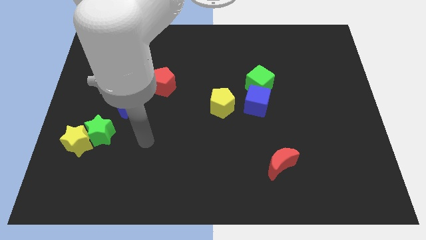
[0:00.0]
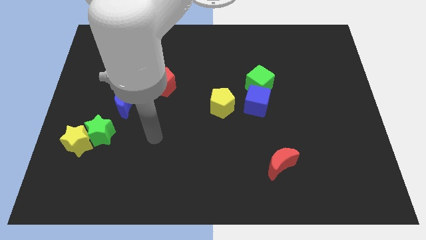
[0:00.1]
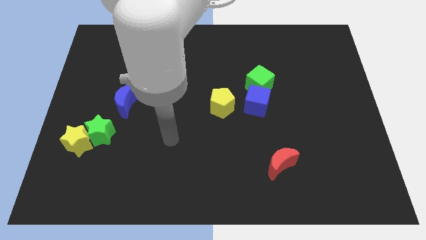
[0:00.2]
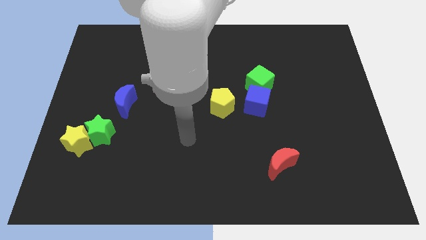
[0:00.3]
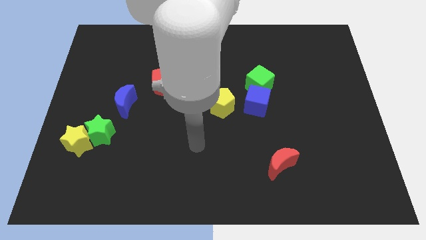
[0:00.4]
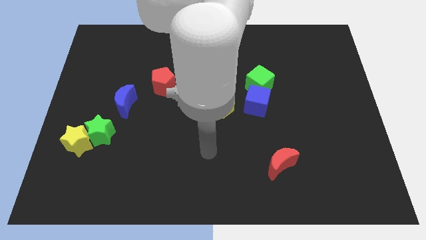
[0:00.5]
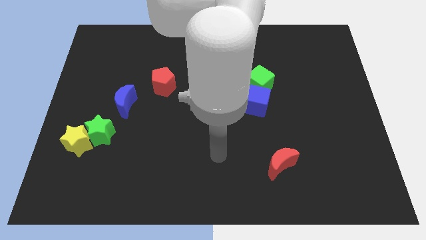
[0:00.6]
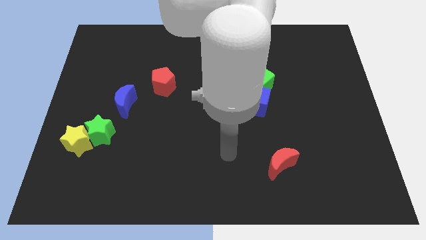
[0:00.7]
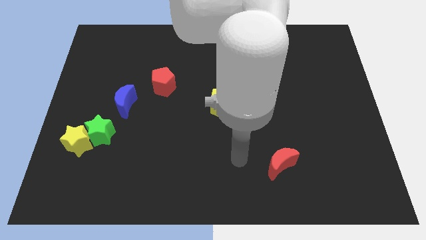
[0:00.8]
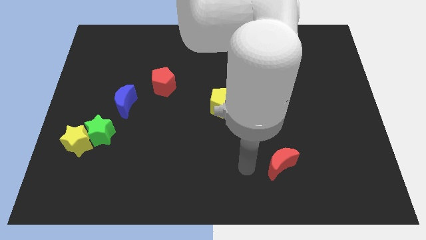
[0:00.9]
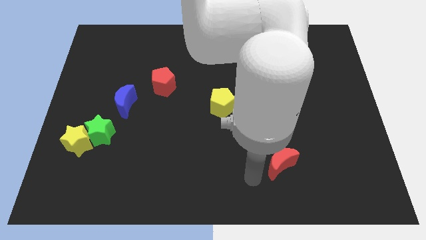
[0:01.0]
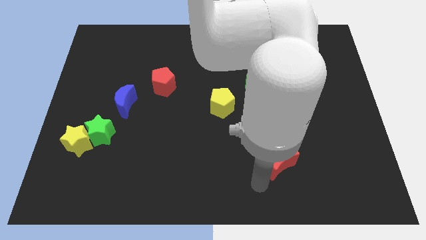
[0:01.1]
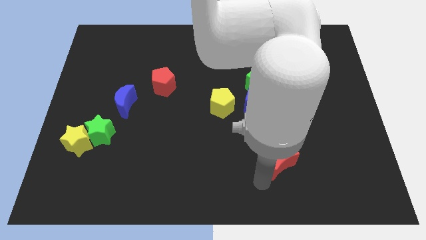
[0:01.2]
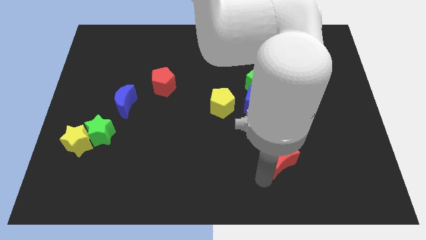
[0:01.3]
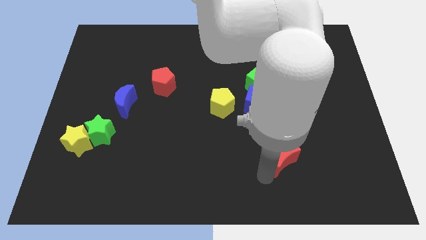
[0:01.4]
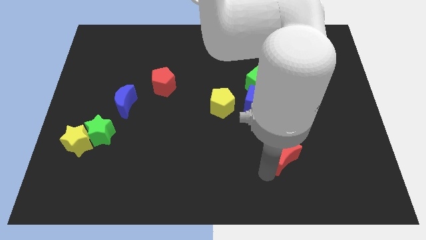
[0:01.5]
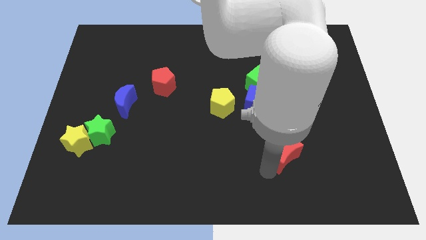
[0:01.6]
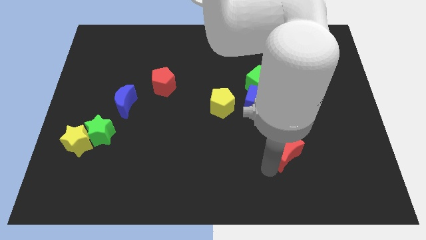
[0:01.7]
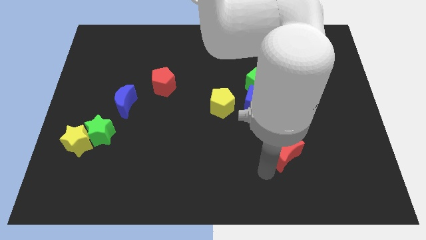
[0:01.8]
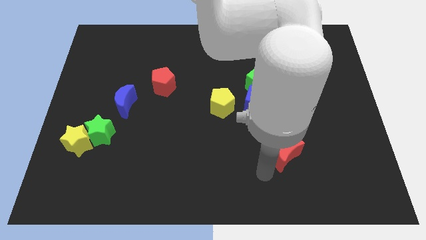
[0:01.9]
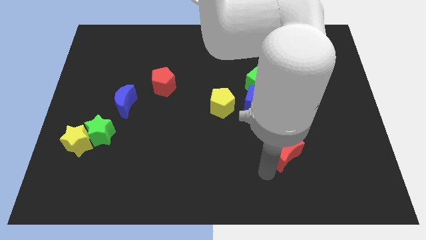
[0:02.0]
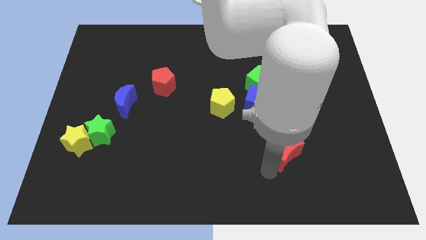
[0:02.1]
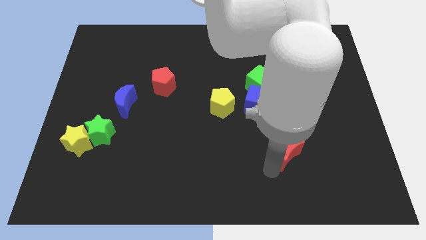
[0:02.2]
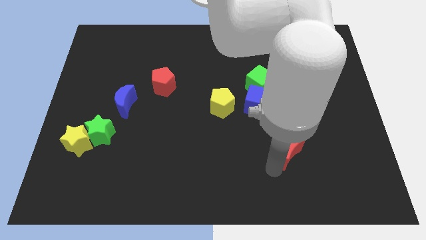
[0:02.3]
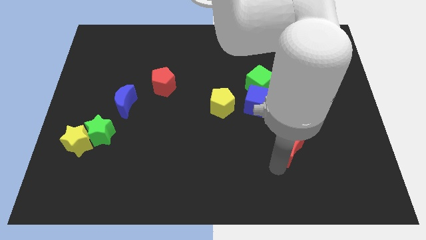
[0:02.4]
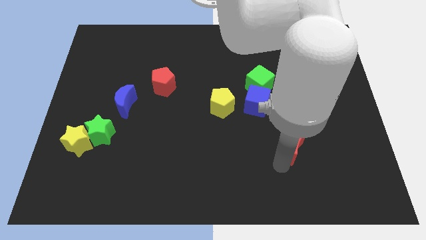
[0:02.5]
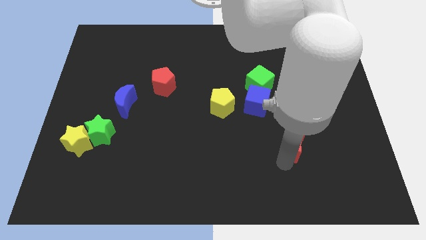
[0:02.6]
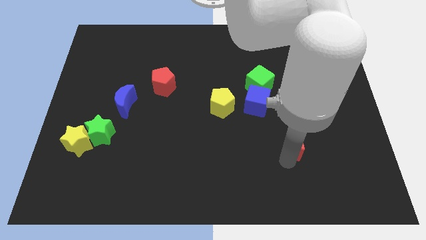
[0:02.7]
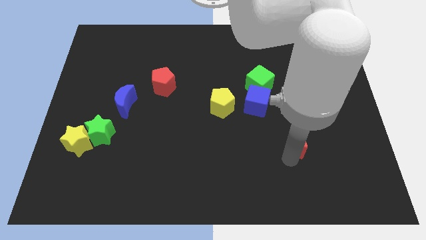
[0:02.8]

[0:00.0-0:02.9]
slide the red moon diagonally up and to the right somewhat

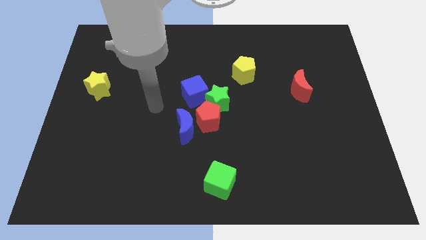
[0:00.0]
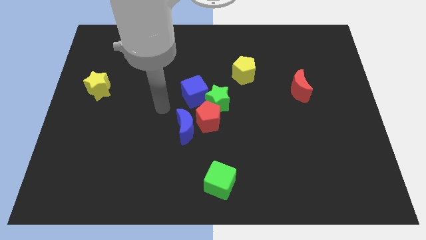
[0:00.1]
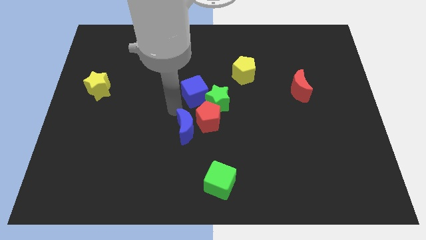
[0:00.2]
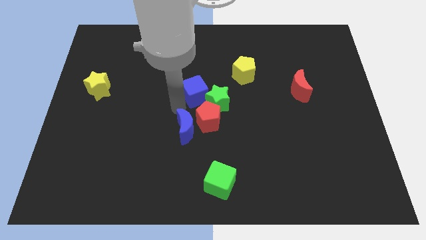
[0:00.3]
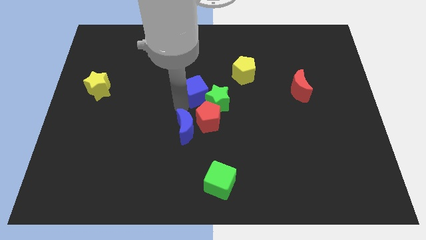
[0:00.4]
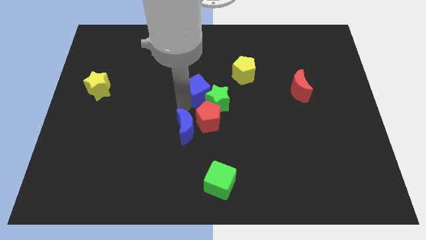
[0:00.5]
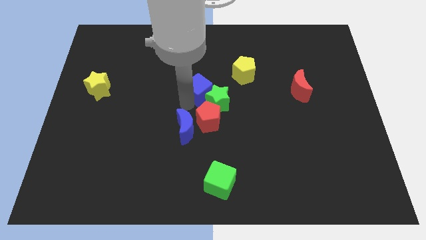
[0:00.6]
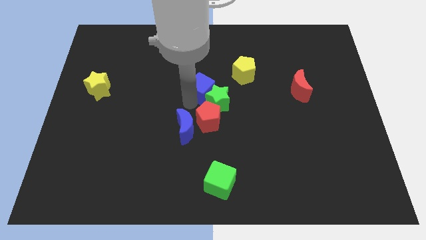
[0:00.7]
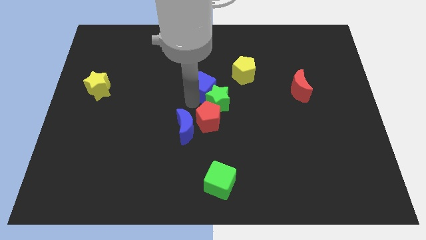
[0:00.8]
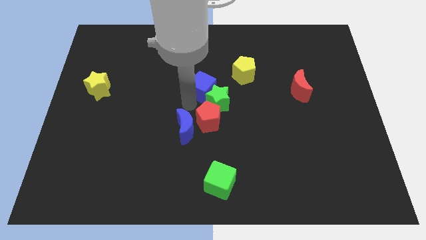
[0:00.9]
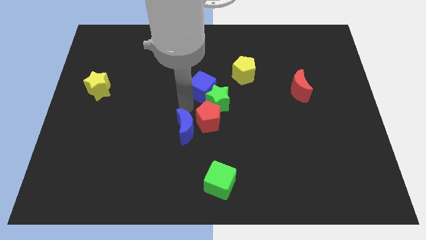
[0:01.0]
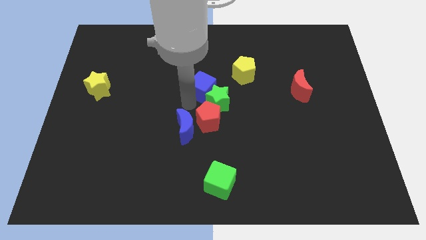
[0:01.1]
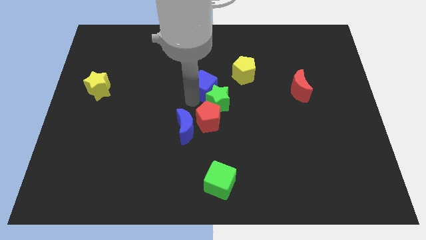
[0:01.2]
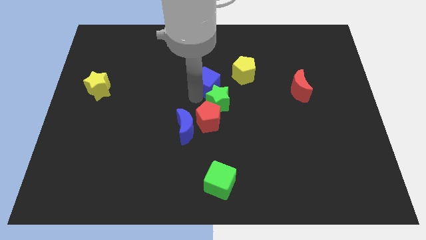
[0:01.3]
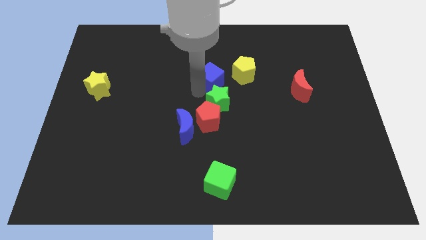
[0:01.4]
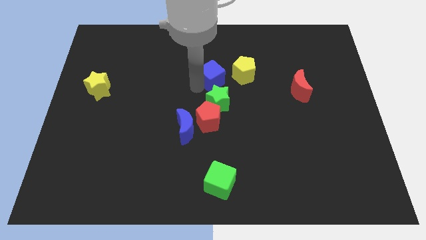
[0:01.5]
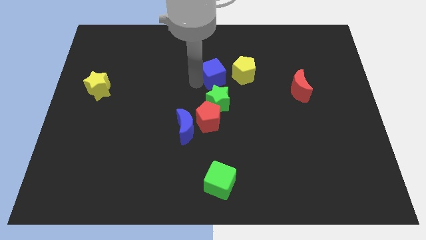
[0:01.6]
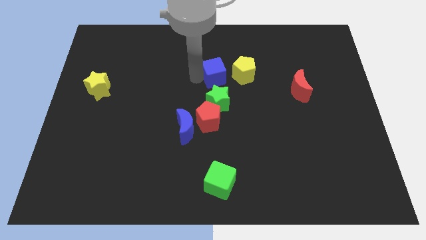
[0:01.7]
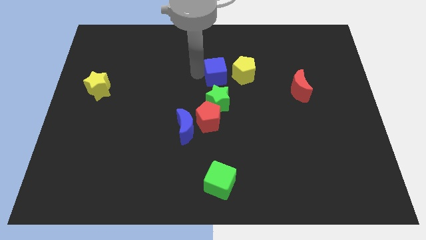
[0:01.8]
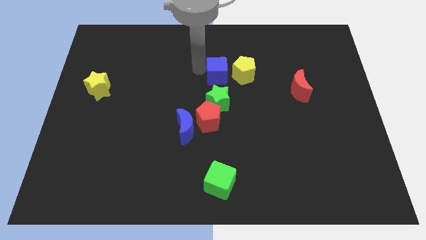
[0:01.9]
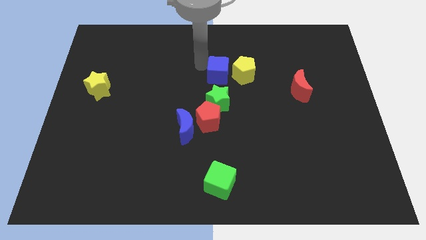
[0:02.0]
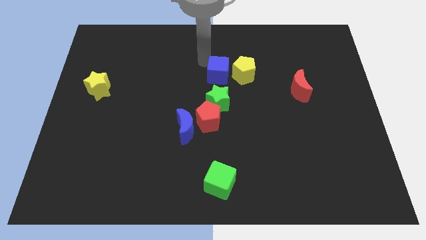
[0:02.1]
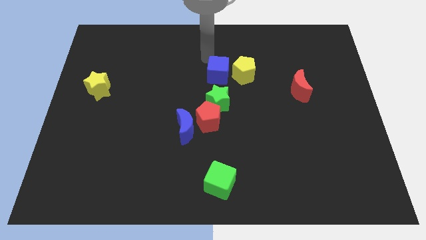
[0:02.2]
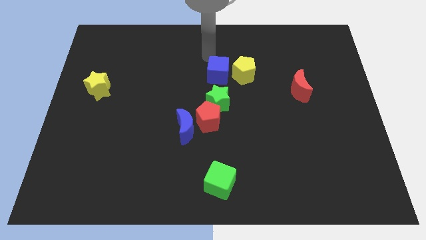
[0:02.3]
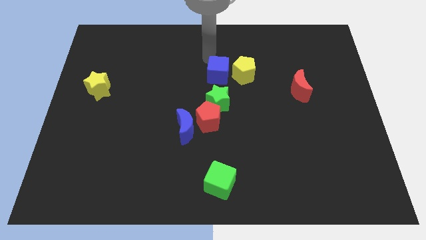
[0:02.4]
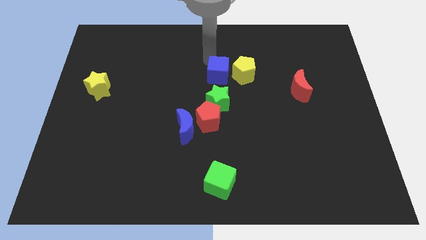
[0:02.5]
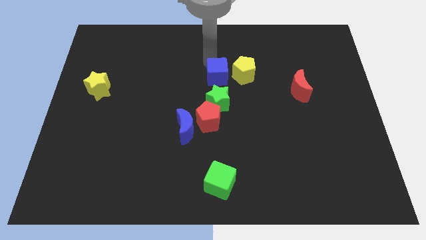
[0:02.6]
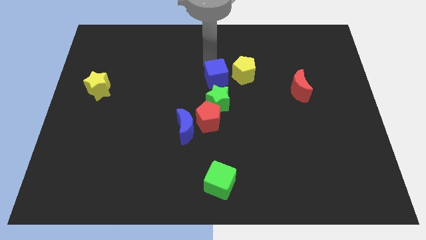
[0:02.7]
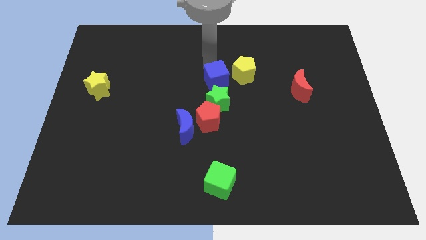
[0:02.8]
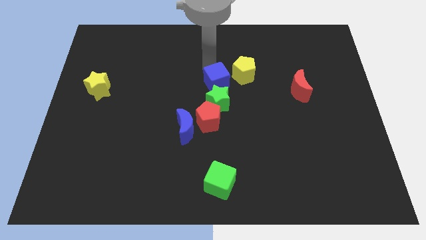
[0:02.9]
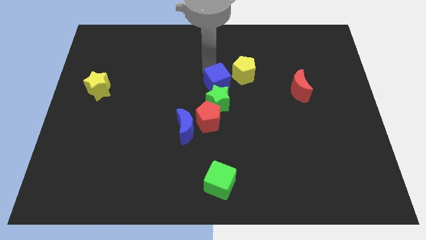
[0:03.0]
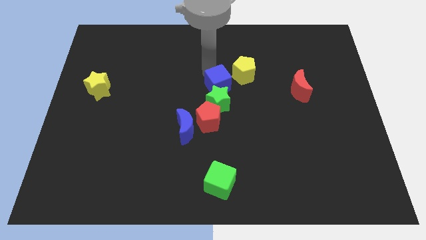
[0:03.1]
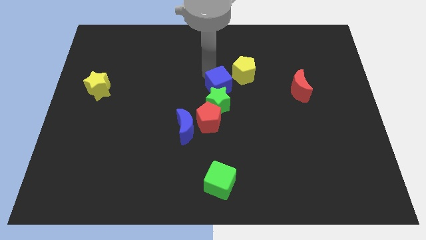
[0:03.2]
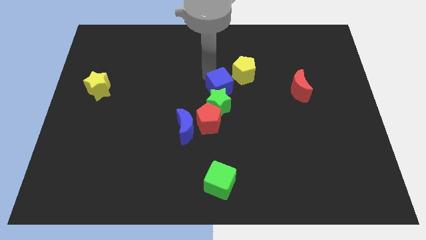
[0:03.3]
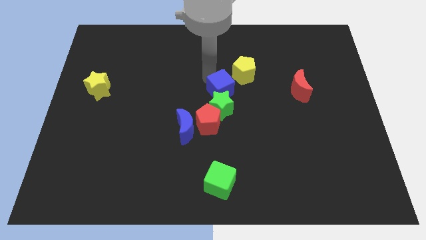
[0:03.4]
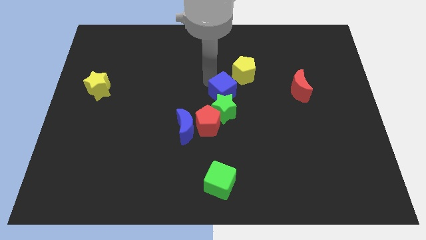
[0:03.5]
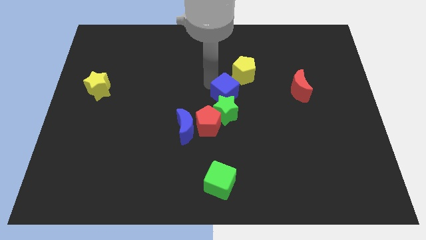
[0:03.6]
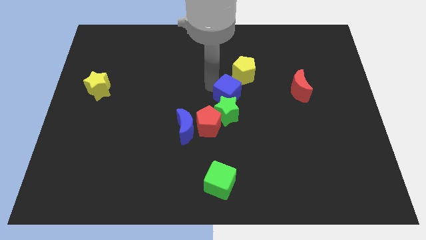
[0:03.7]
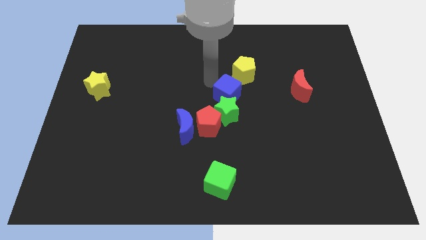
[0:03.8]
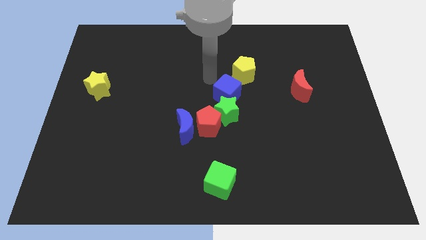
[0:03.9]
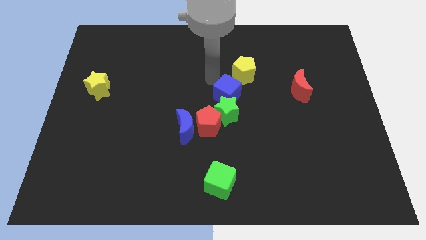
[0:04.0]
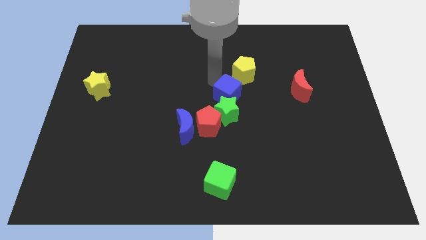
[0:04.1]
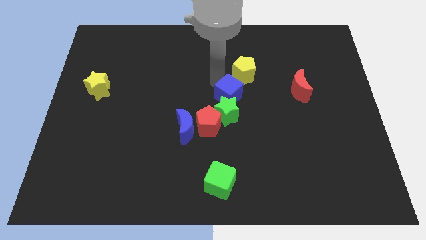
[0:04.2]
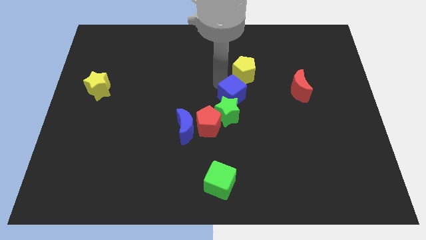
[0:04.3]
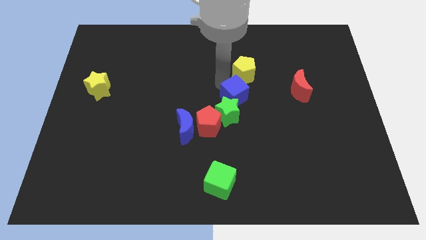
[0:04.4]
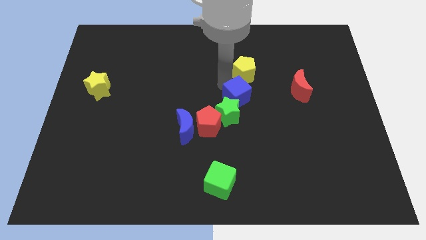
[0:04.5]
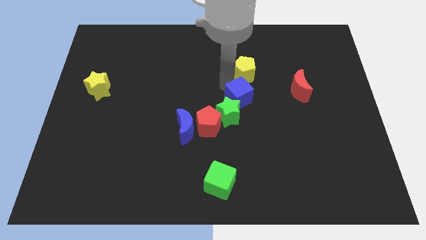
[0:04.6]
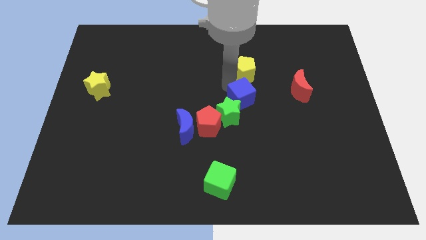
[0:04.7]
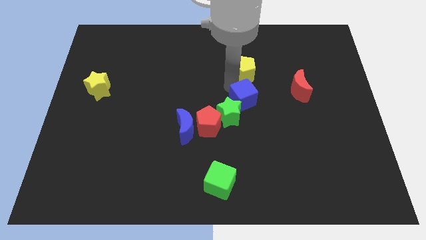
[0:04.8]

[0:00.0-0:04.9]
slide the blue cube a bit down and to the right diagonally

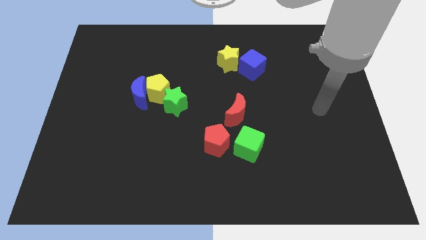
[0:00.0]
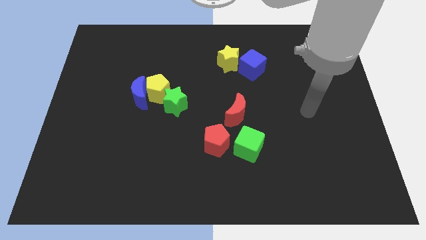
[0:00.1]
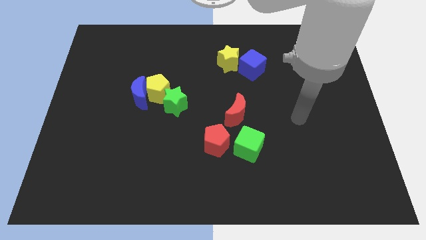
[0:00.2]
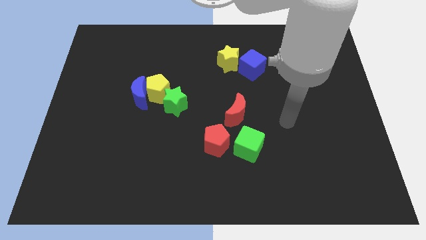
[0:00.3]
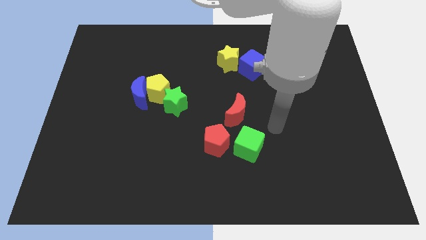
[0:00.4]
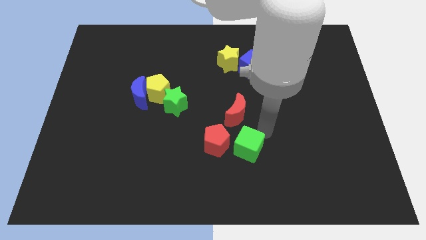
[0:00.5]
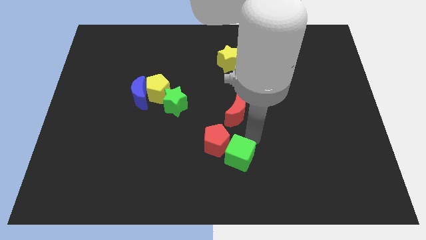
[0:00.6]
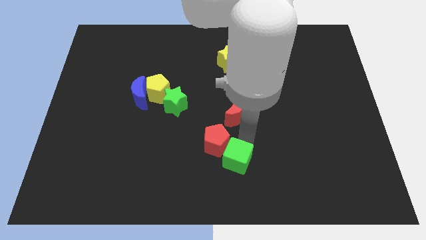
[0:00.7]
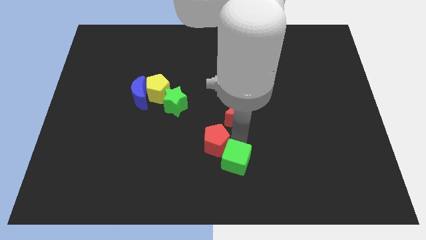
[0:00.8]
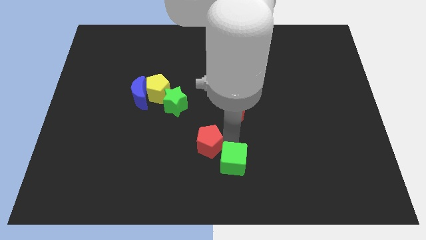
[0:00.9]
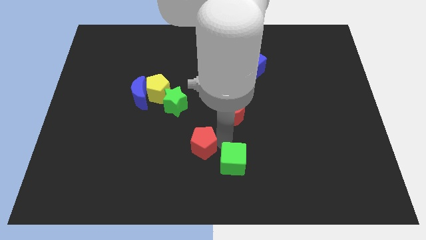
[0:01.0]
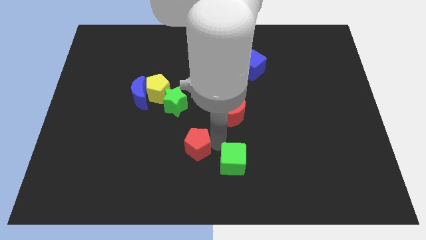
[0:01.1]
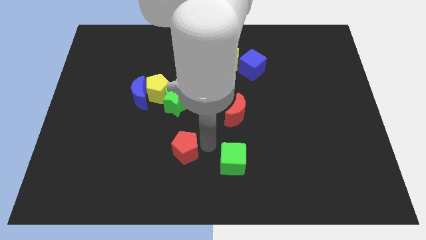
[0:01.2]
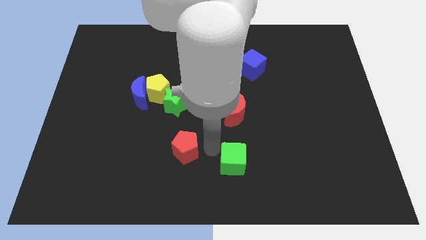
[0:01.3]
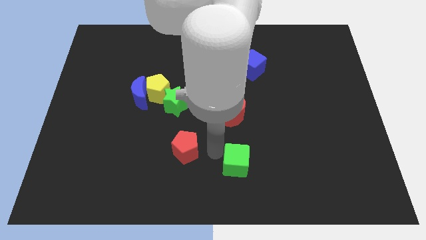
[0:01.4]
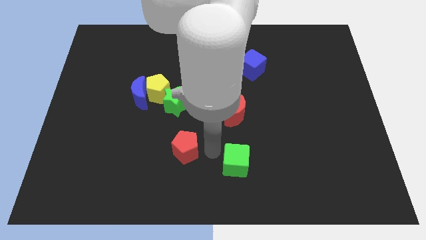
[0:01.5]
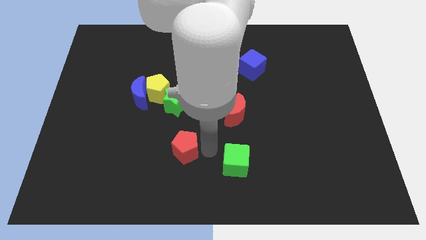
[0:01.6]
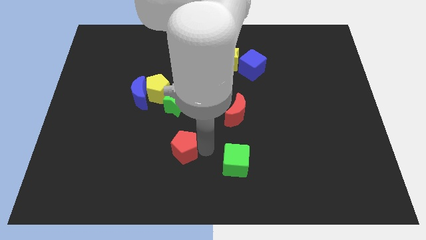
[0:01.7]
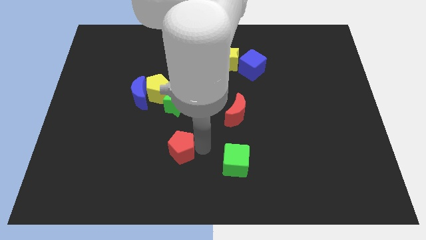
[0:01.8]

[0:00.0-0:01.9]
slightly push the red pentagon left
